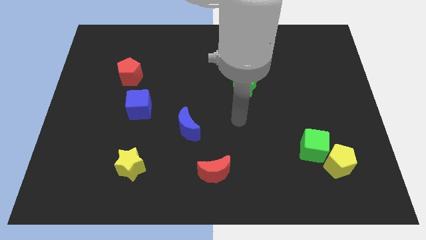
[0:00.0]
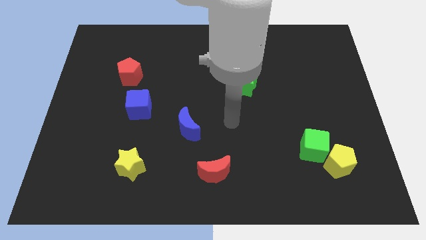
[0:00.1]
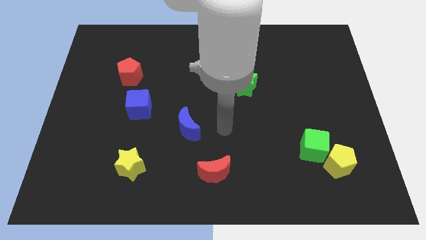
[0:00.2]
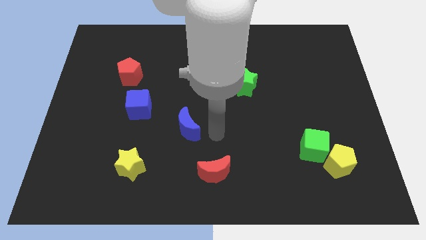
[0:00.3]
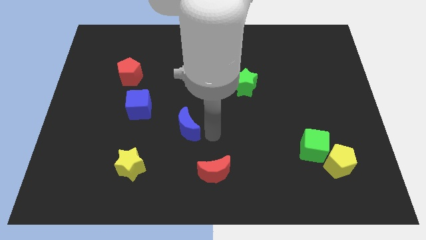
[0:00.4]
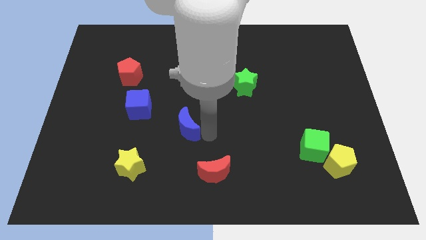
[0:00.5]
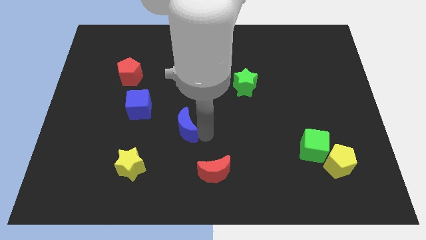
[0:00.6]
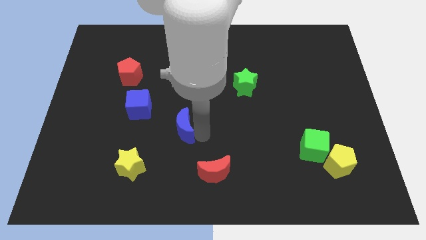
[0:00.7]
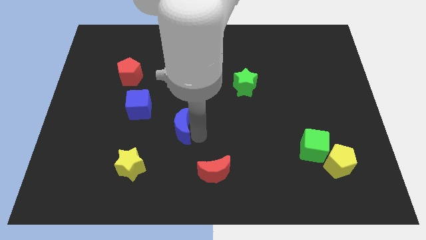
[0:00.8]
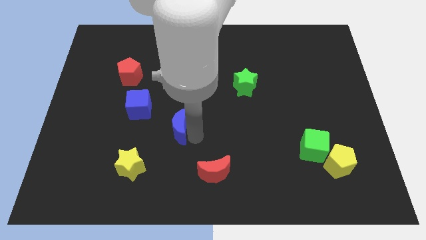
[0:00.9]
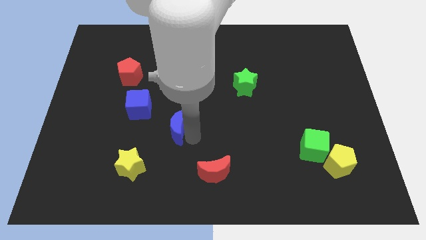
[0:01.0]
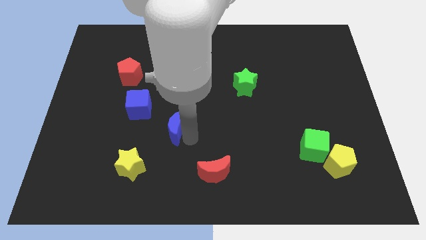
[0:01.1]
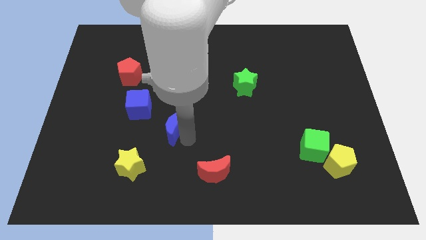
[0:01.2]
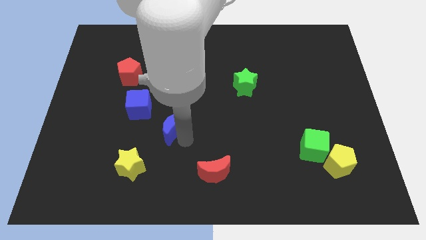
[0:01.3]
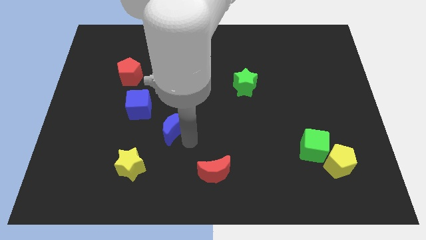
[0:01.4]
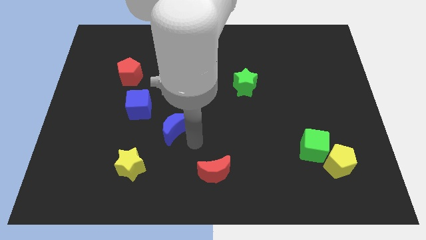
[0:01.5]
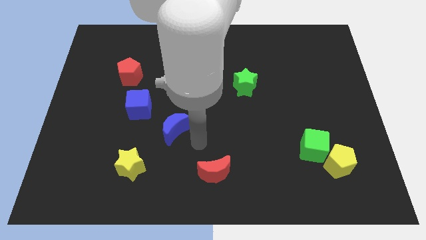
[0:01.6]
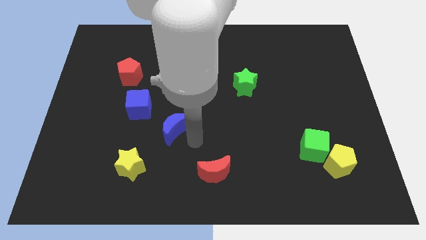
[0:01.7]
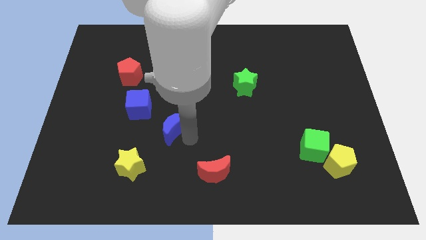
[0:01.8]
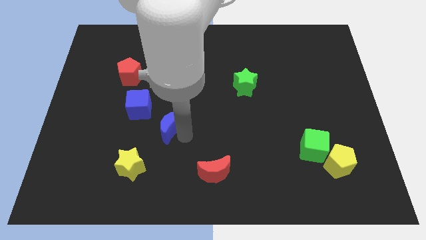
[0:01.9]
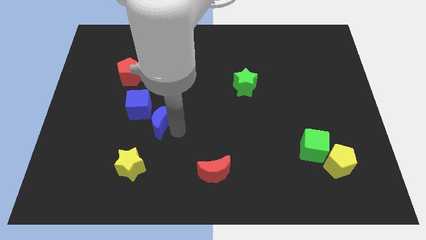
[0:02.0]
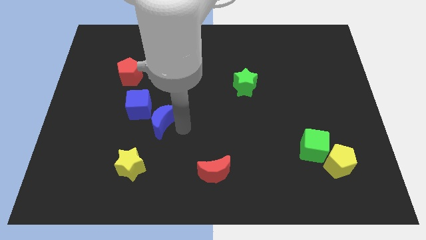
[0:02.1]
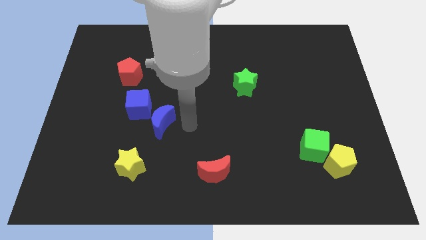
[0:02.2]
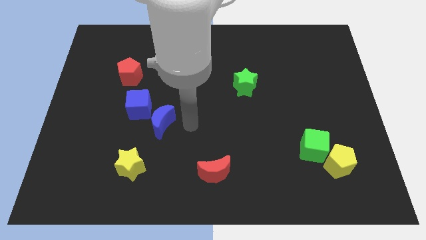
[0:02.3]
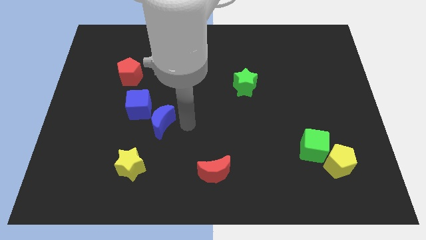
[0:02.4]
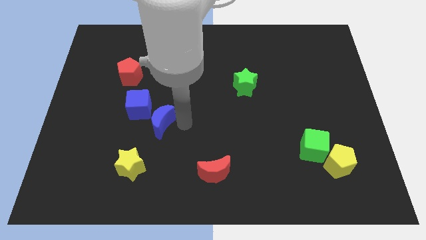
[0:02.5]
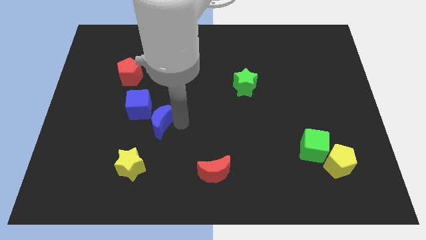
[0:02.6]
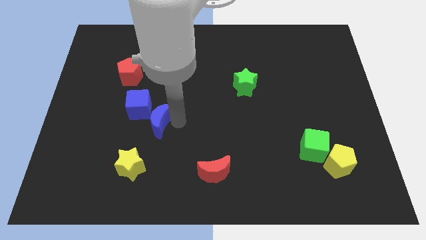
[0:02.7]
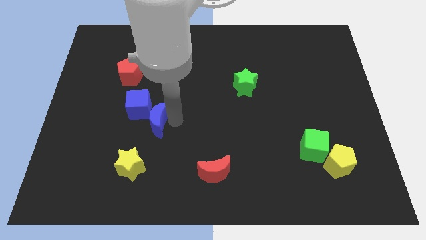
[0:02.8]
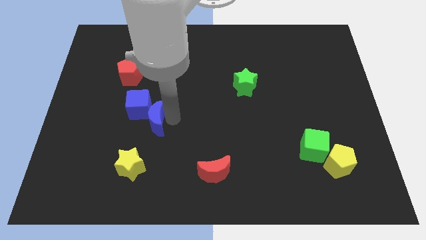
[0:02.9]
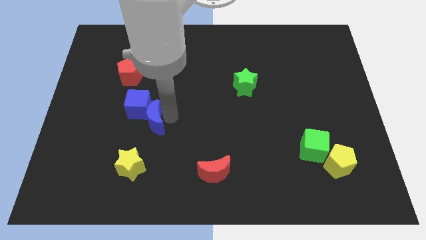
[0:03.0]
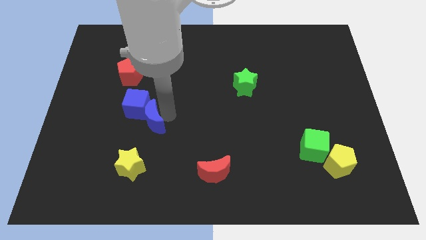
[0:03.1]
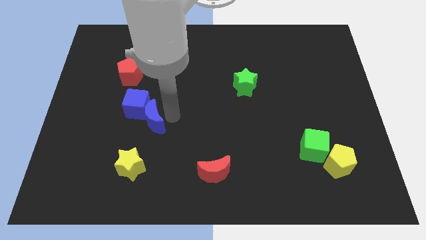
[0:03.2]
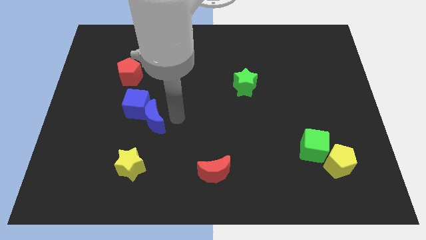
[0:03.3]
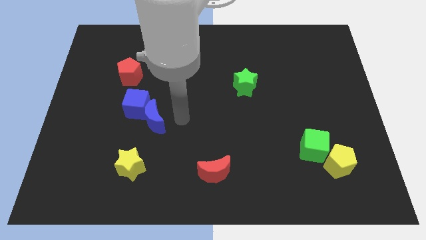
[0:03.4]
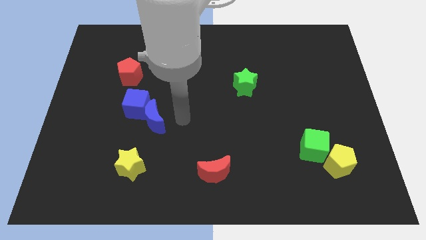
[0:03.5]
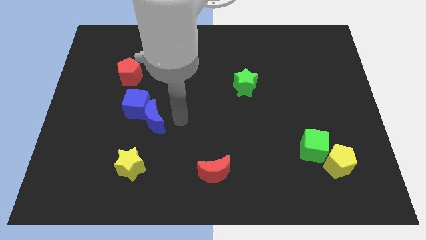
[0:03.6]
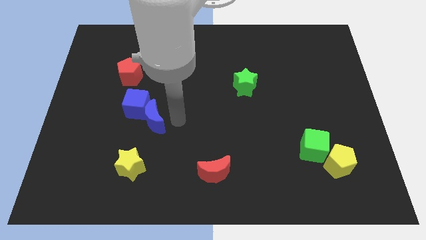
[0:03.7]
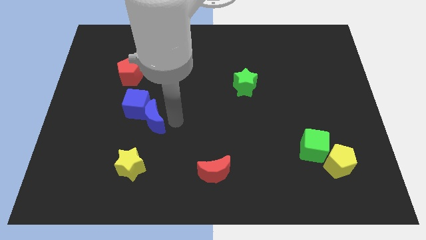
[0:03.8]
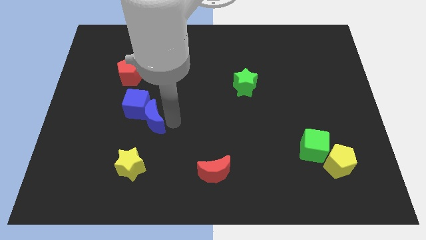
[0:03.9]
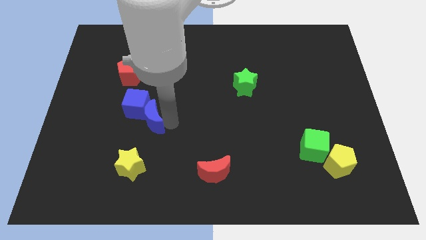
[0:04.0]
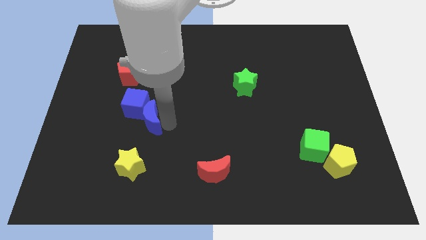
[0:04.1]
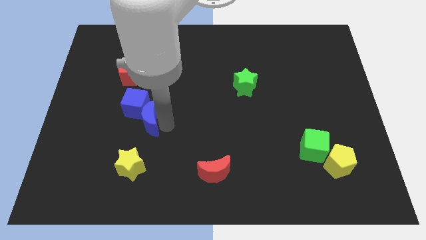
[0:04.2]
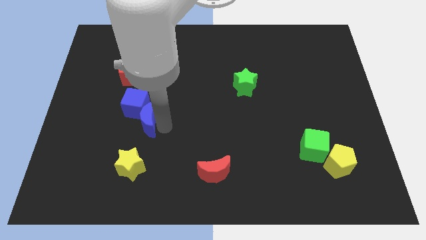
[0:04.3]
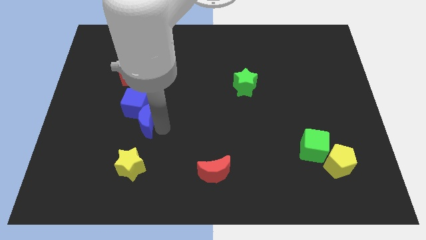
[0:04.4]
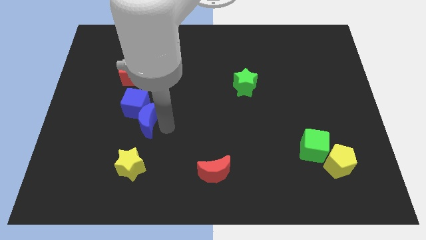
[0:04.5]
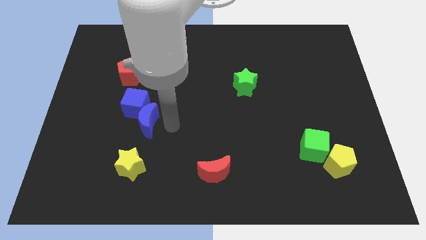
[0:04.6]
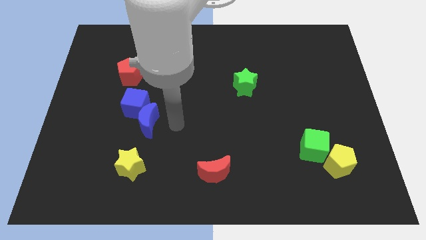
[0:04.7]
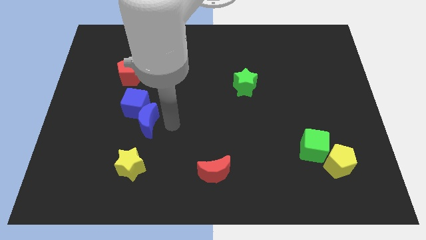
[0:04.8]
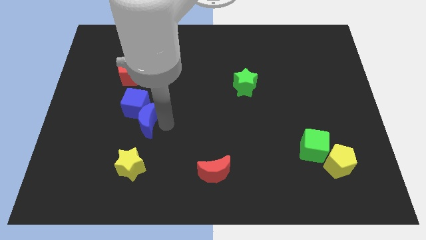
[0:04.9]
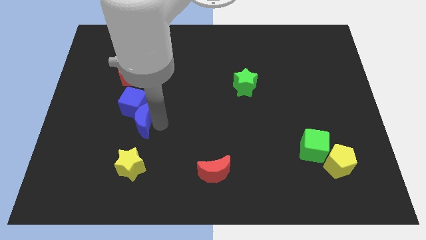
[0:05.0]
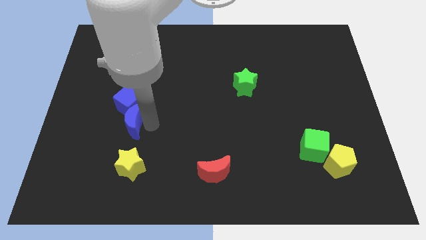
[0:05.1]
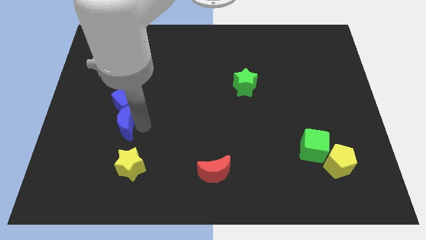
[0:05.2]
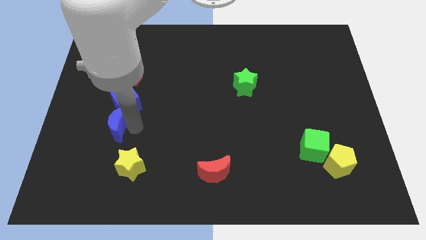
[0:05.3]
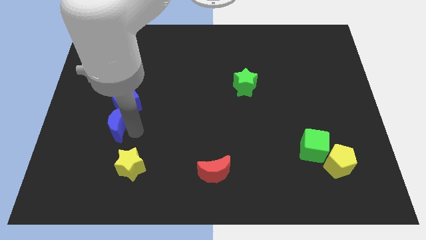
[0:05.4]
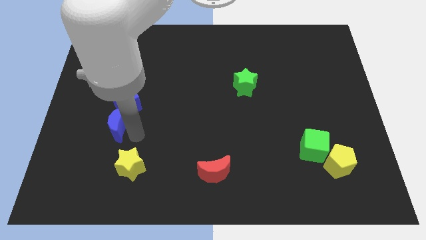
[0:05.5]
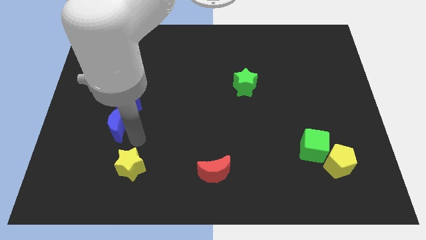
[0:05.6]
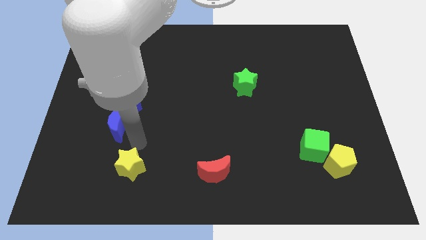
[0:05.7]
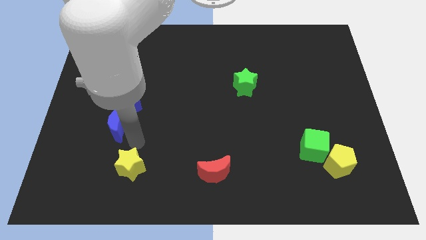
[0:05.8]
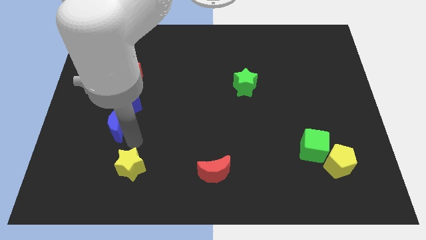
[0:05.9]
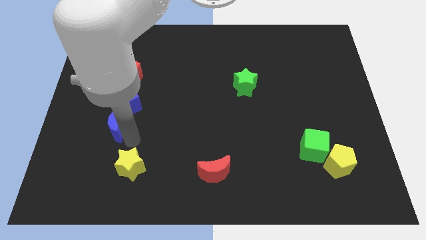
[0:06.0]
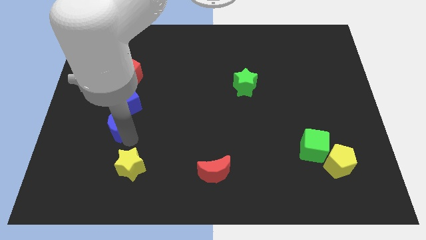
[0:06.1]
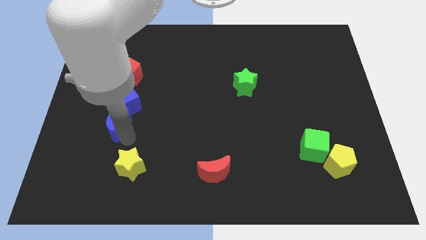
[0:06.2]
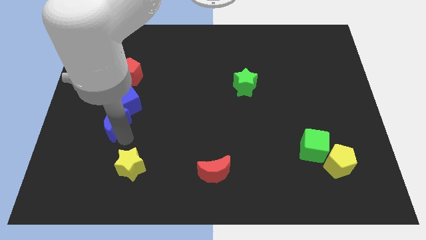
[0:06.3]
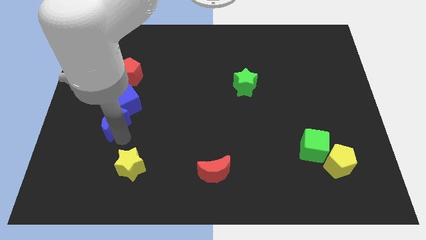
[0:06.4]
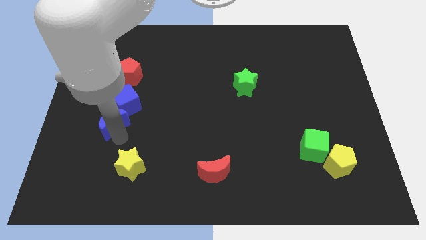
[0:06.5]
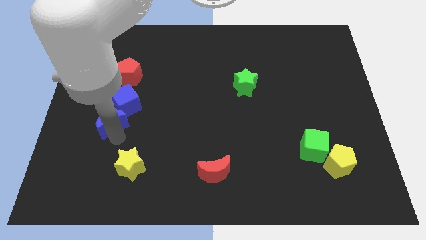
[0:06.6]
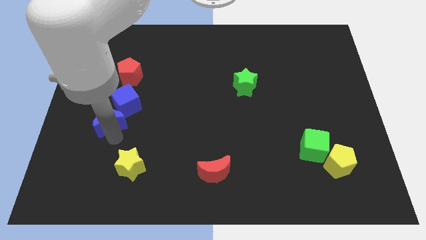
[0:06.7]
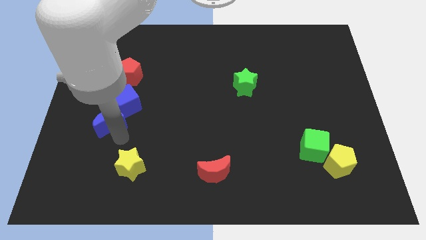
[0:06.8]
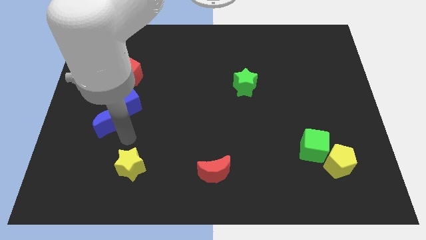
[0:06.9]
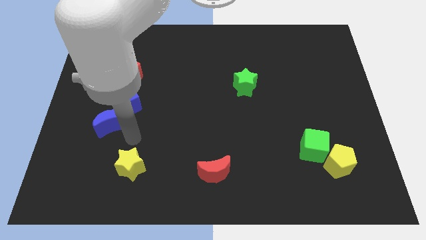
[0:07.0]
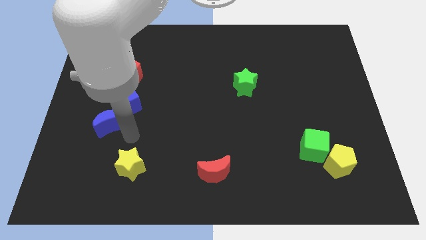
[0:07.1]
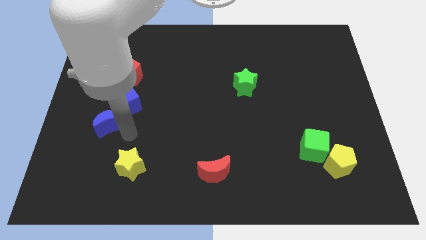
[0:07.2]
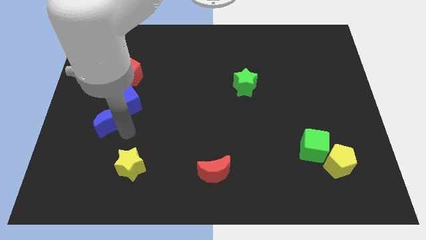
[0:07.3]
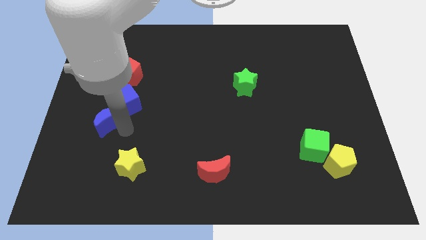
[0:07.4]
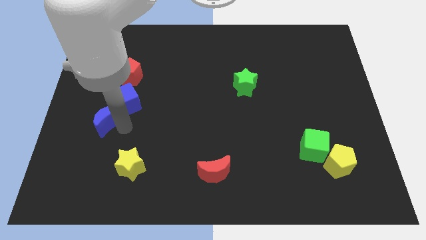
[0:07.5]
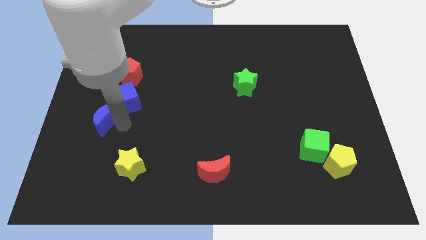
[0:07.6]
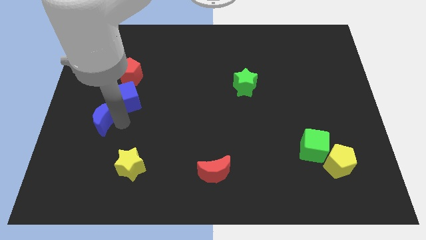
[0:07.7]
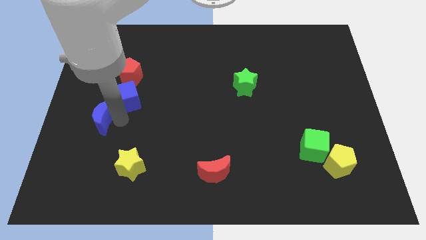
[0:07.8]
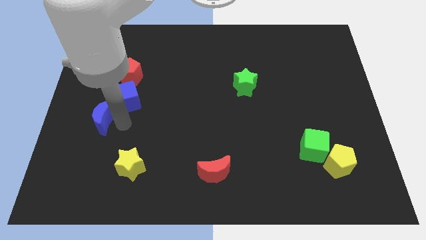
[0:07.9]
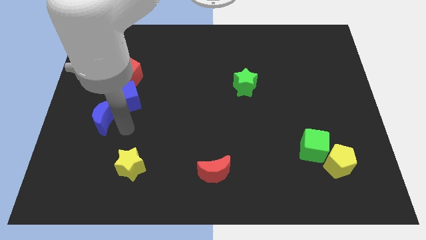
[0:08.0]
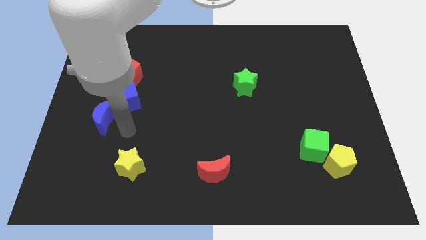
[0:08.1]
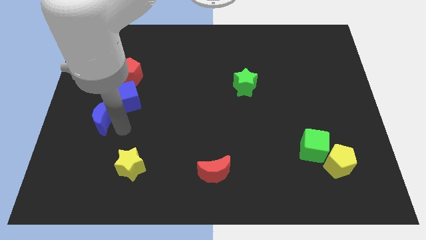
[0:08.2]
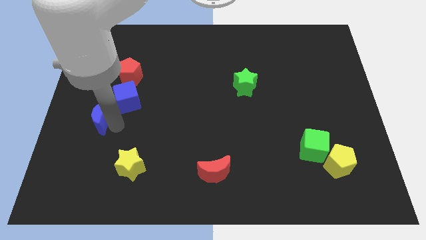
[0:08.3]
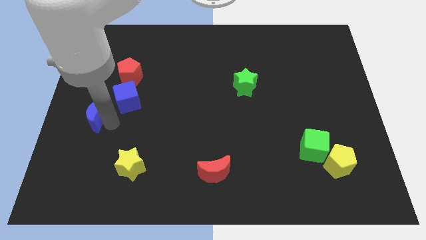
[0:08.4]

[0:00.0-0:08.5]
push the blue moon to the left side
